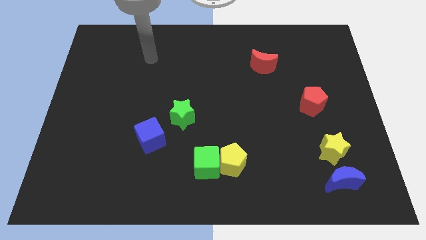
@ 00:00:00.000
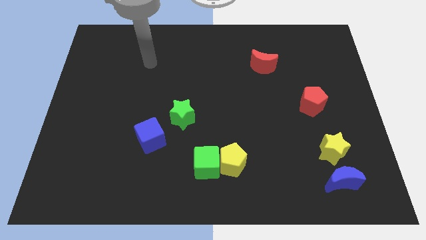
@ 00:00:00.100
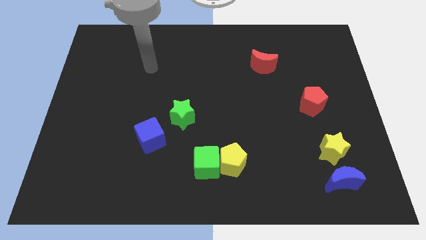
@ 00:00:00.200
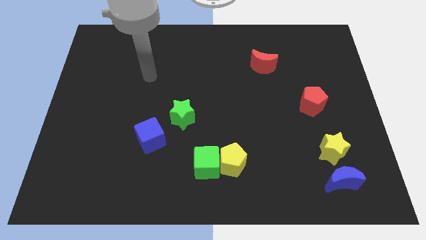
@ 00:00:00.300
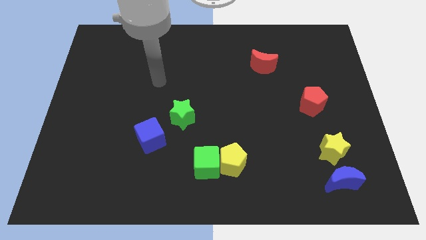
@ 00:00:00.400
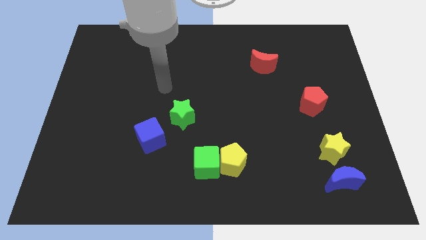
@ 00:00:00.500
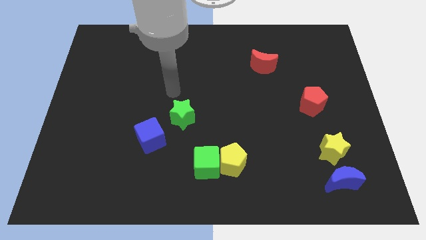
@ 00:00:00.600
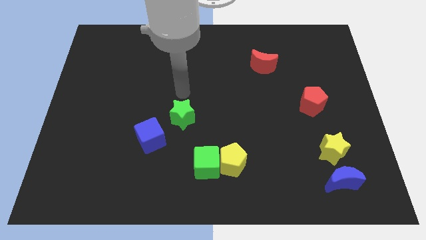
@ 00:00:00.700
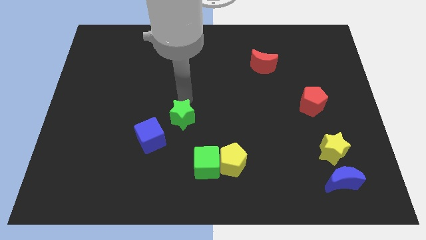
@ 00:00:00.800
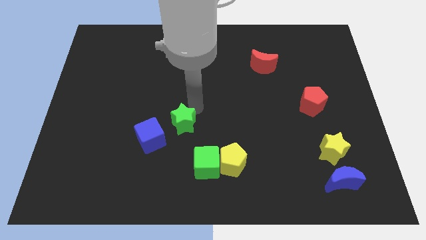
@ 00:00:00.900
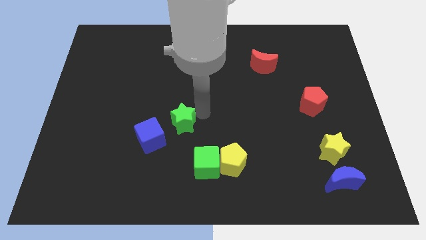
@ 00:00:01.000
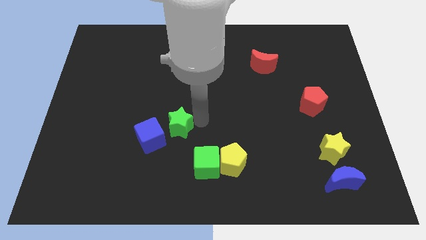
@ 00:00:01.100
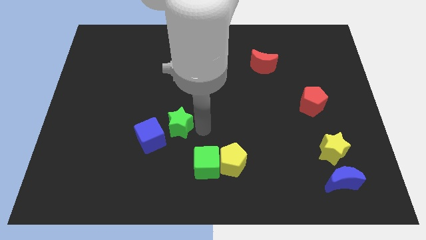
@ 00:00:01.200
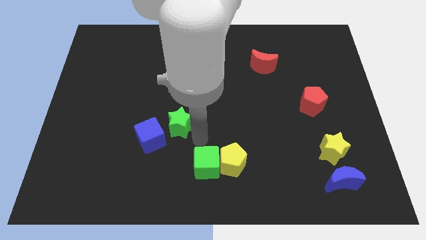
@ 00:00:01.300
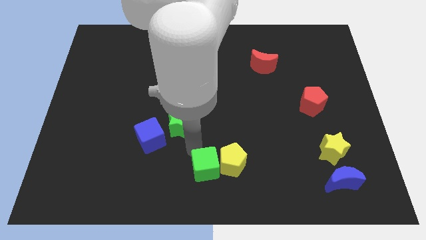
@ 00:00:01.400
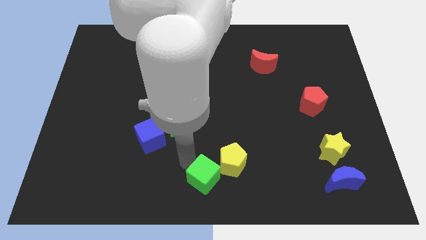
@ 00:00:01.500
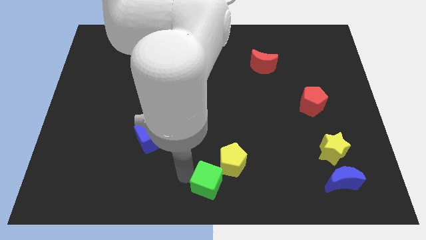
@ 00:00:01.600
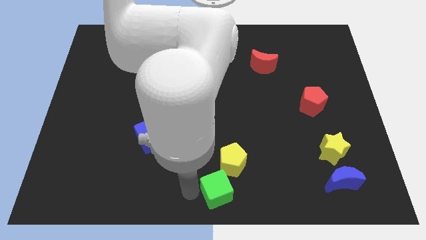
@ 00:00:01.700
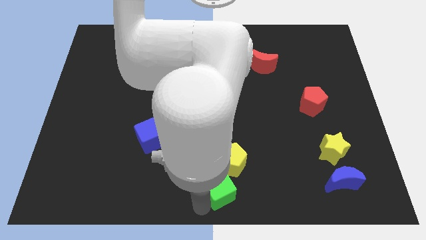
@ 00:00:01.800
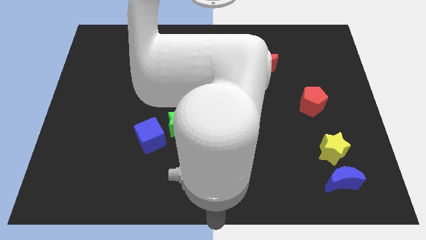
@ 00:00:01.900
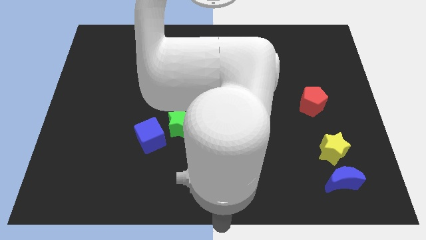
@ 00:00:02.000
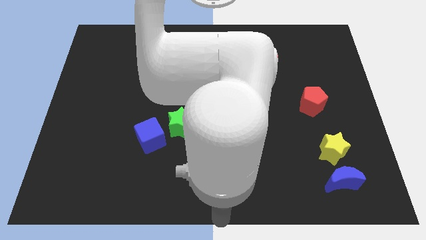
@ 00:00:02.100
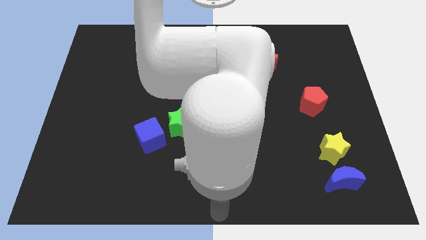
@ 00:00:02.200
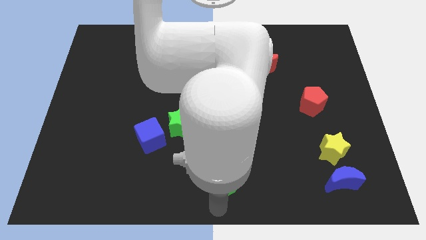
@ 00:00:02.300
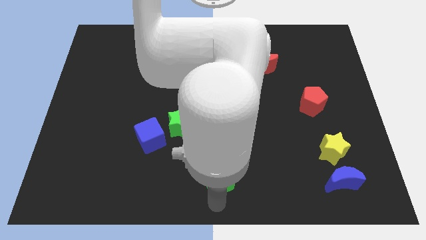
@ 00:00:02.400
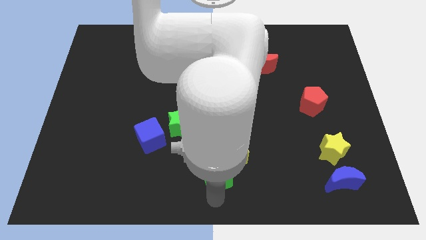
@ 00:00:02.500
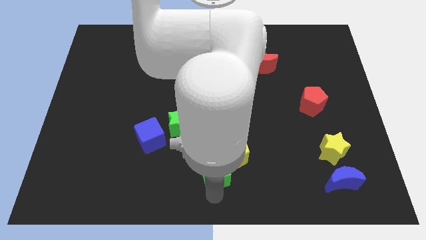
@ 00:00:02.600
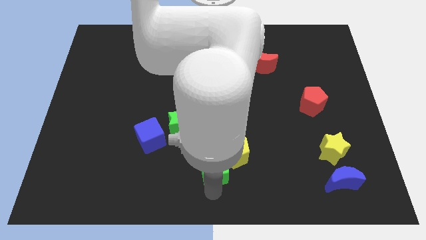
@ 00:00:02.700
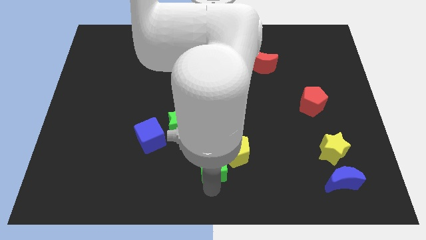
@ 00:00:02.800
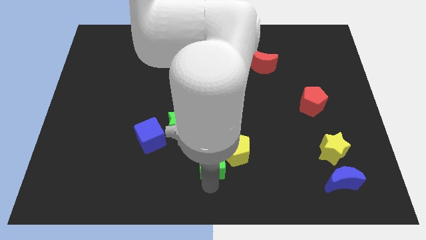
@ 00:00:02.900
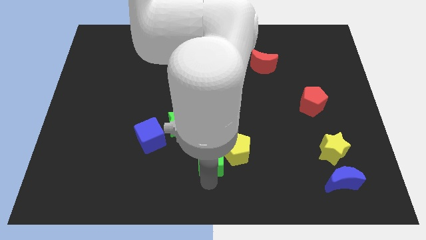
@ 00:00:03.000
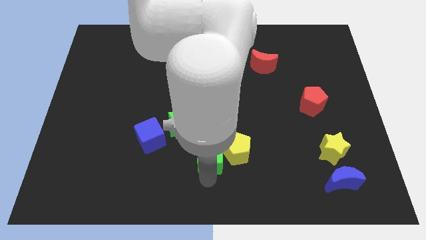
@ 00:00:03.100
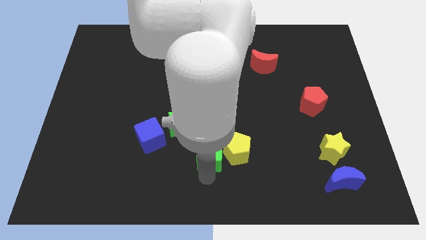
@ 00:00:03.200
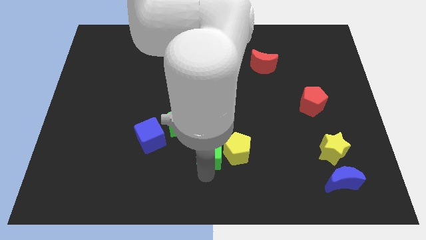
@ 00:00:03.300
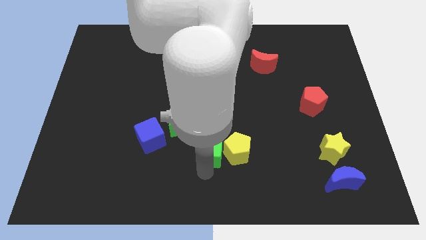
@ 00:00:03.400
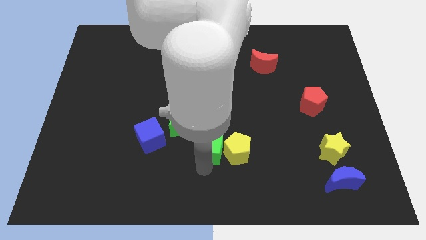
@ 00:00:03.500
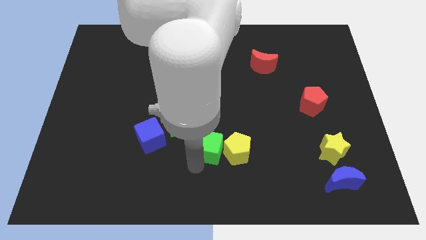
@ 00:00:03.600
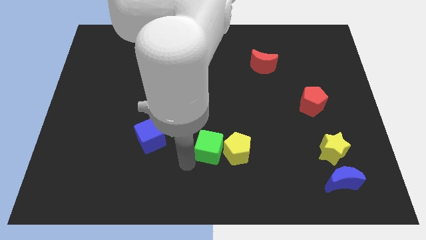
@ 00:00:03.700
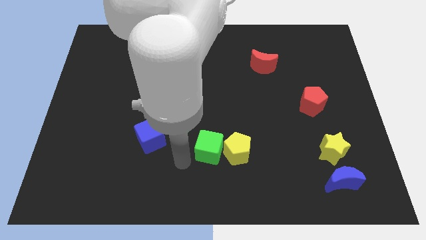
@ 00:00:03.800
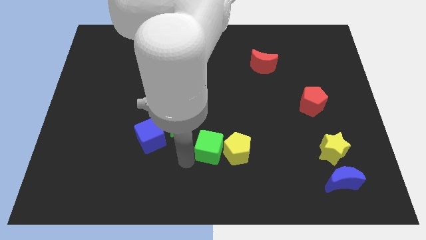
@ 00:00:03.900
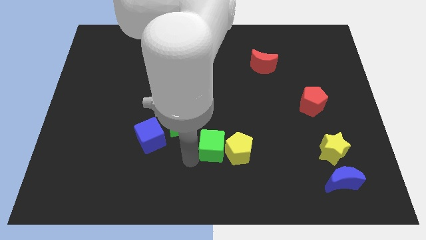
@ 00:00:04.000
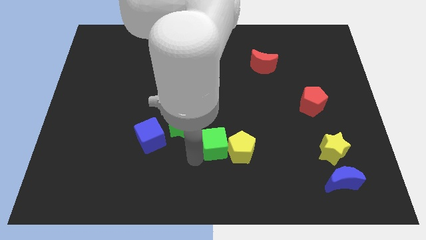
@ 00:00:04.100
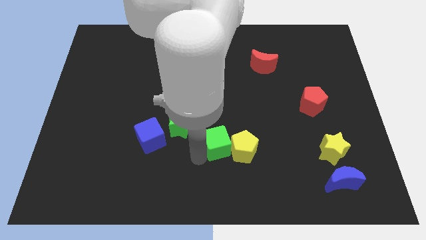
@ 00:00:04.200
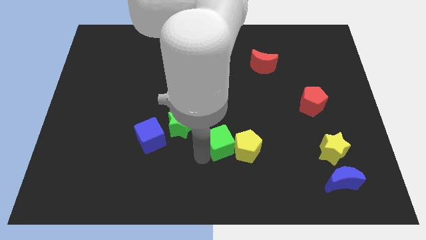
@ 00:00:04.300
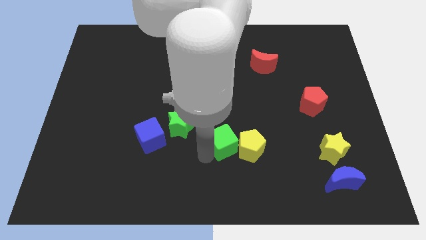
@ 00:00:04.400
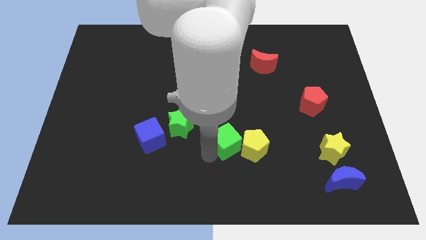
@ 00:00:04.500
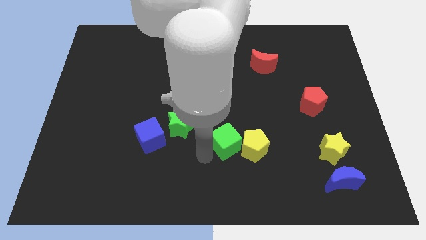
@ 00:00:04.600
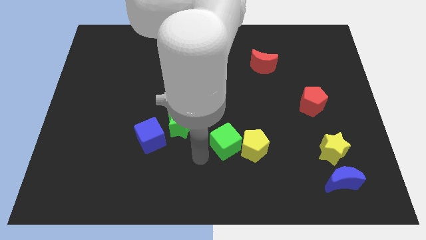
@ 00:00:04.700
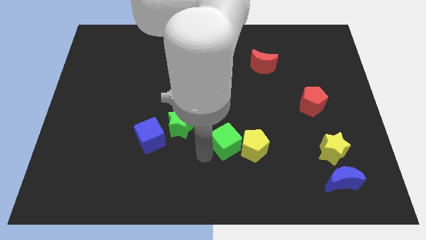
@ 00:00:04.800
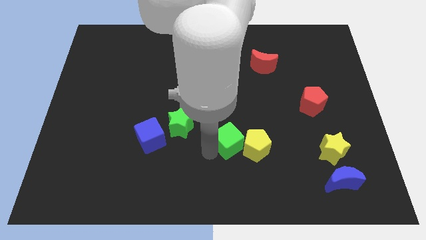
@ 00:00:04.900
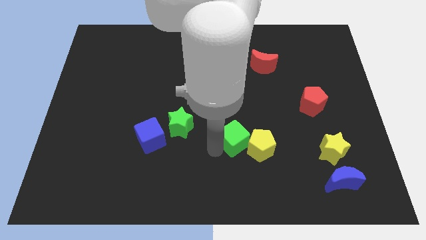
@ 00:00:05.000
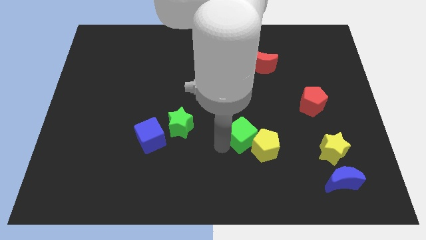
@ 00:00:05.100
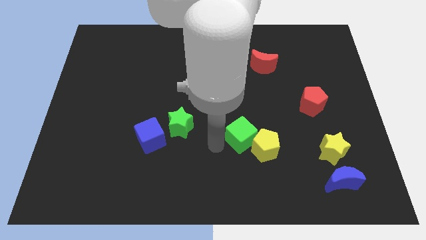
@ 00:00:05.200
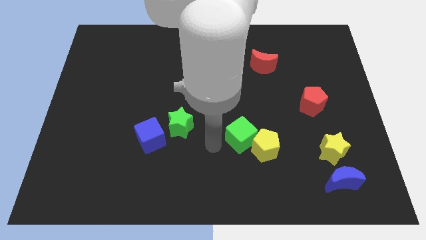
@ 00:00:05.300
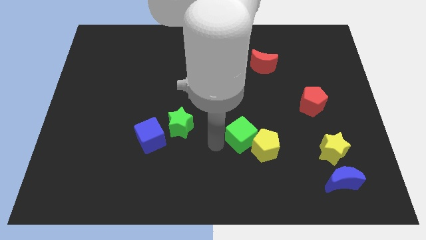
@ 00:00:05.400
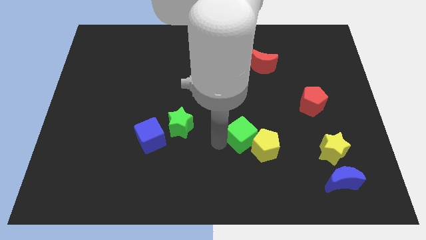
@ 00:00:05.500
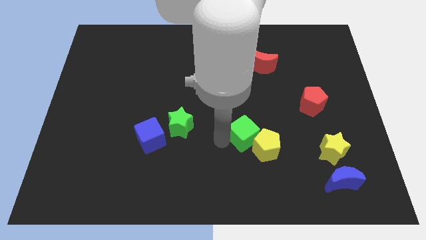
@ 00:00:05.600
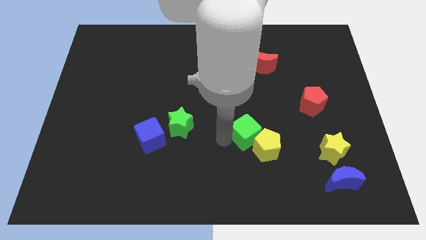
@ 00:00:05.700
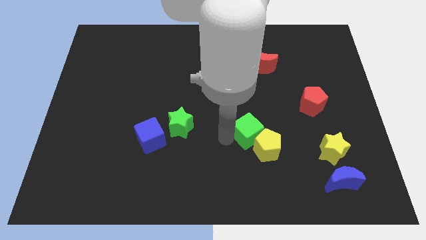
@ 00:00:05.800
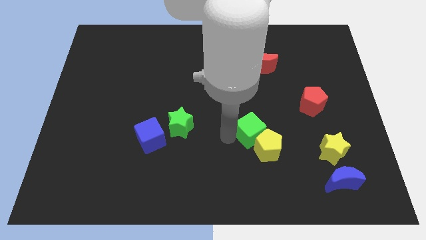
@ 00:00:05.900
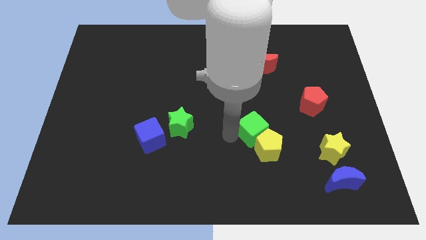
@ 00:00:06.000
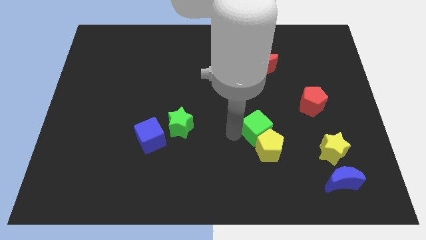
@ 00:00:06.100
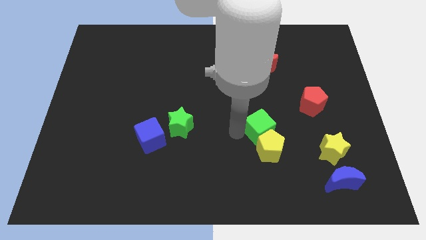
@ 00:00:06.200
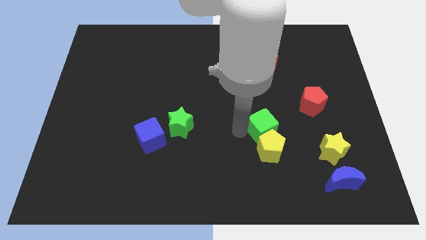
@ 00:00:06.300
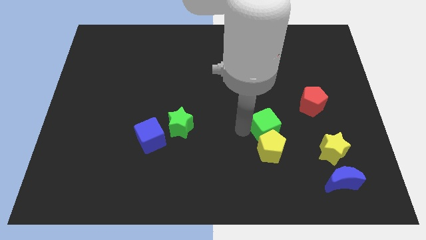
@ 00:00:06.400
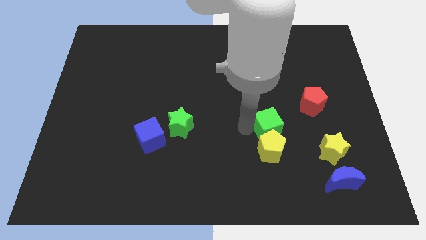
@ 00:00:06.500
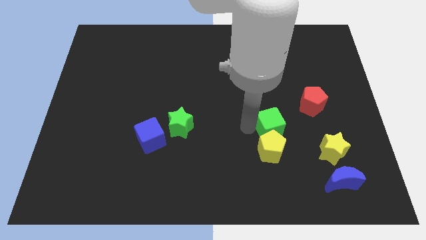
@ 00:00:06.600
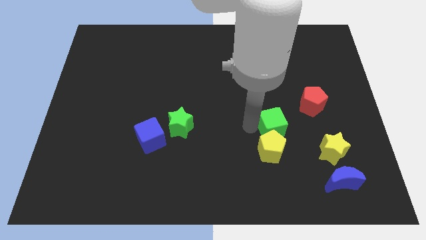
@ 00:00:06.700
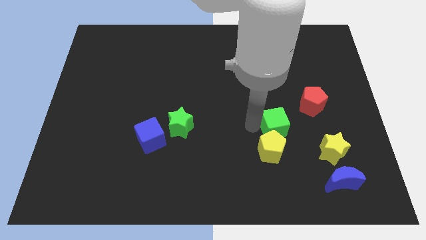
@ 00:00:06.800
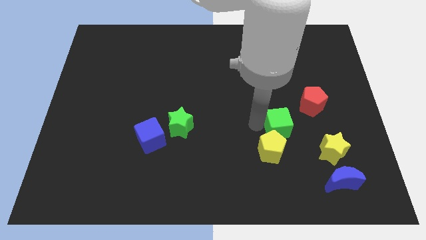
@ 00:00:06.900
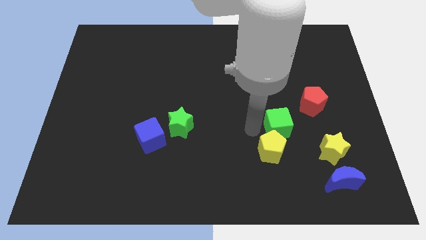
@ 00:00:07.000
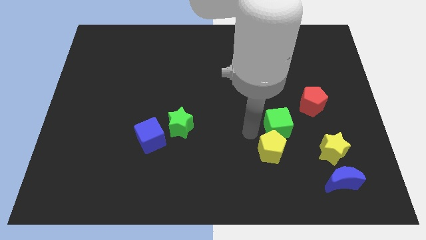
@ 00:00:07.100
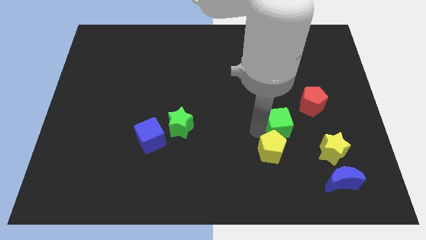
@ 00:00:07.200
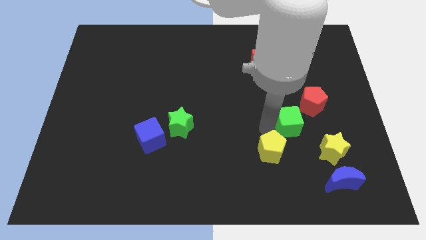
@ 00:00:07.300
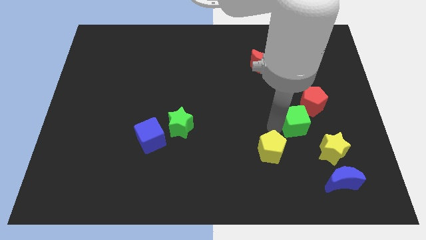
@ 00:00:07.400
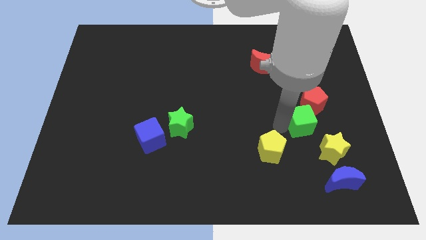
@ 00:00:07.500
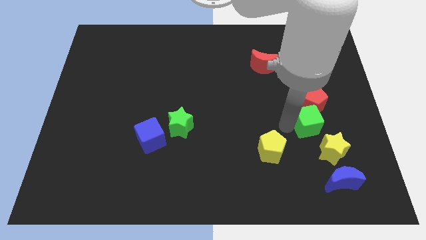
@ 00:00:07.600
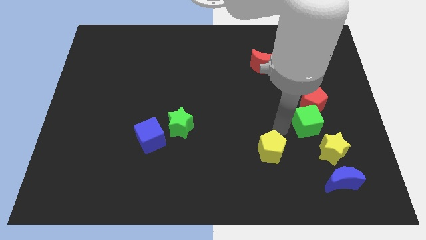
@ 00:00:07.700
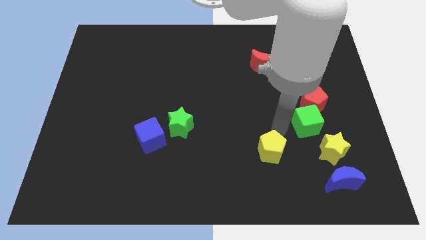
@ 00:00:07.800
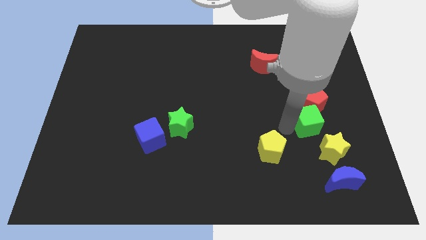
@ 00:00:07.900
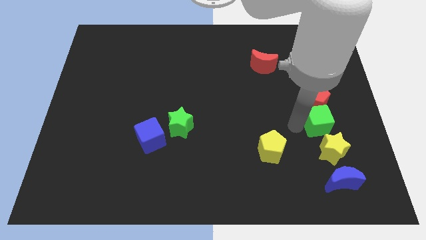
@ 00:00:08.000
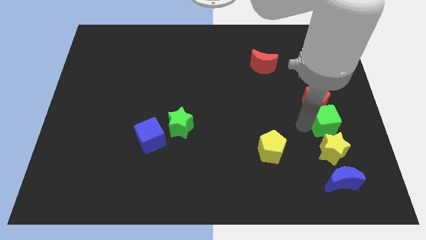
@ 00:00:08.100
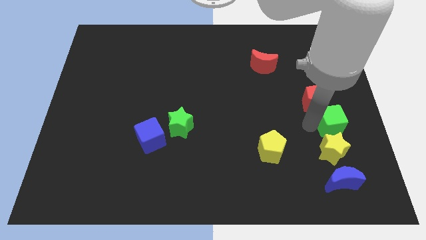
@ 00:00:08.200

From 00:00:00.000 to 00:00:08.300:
push the green cube to the center right
